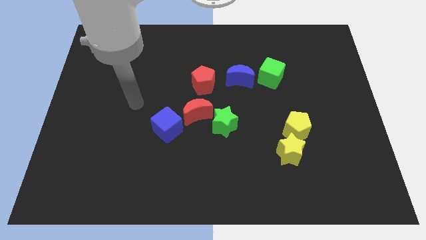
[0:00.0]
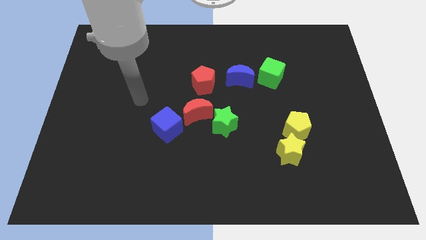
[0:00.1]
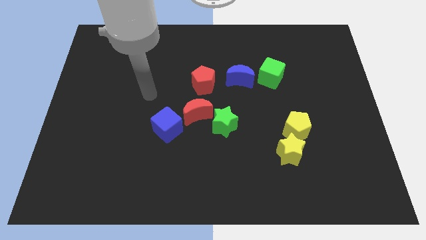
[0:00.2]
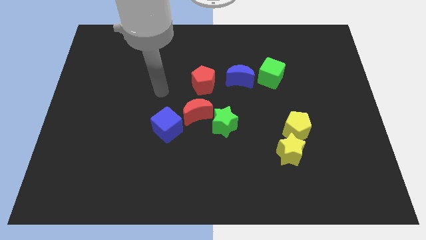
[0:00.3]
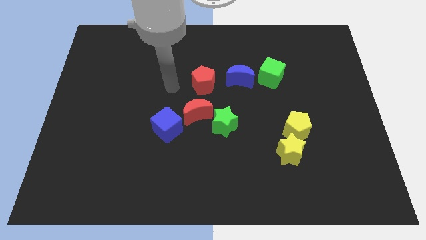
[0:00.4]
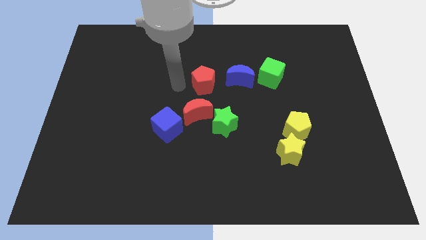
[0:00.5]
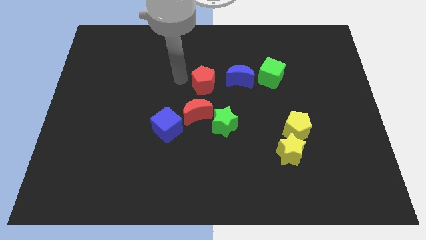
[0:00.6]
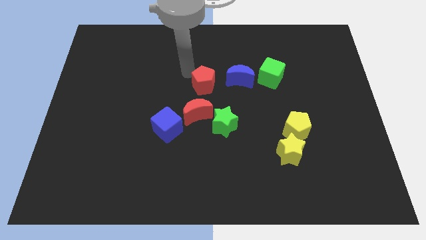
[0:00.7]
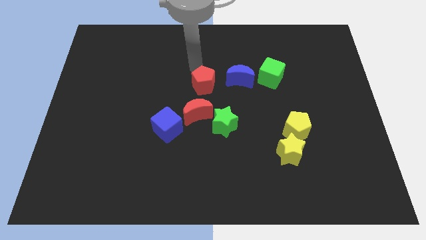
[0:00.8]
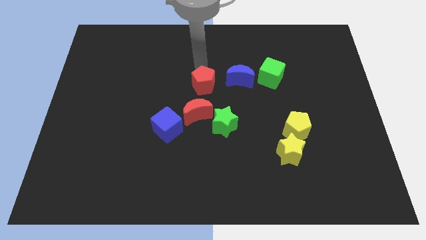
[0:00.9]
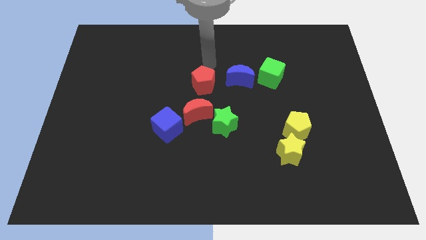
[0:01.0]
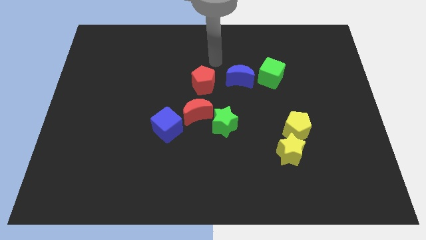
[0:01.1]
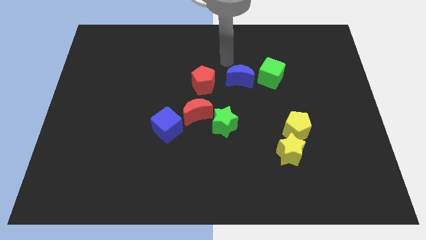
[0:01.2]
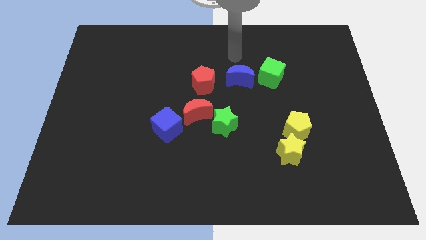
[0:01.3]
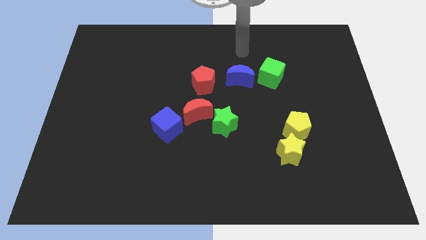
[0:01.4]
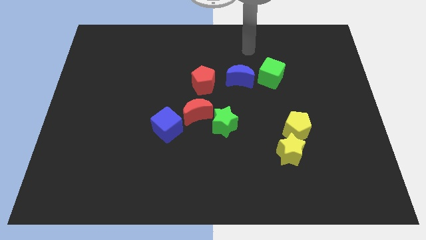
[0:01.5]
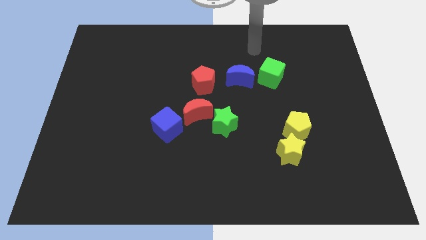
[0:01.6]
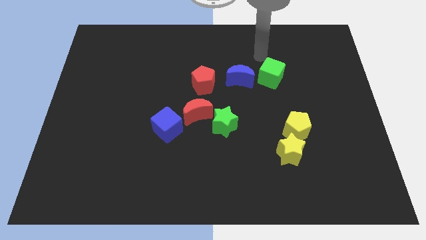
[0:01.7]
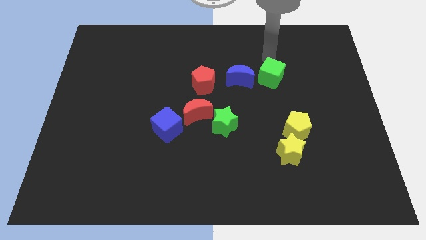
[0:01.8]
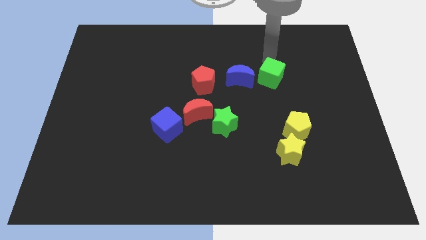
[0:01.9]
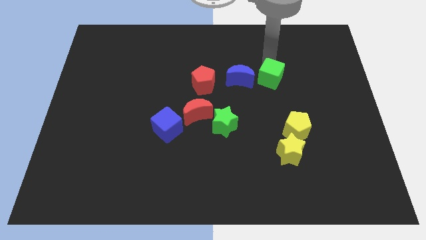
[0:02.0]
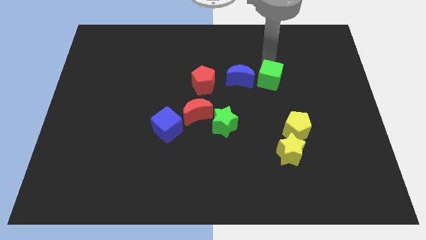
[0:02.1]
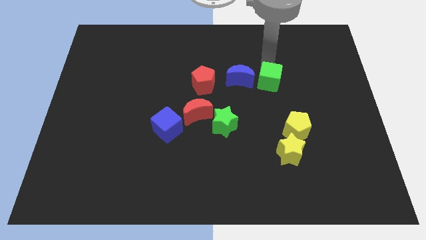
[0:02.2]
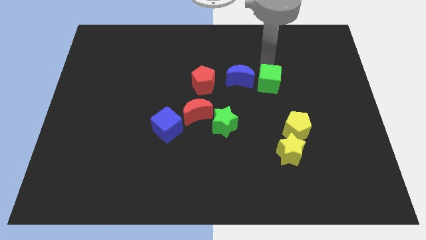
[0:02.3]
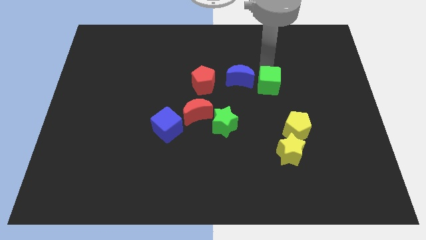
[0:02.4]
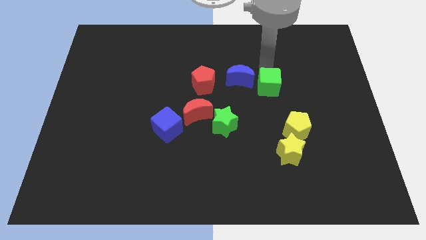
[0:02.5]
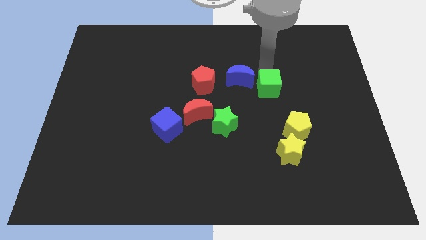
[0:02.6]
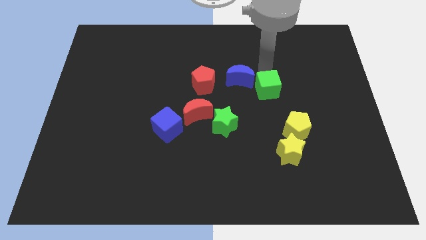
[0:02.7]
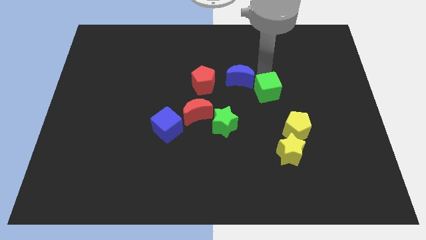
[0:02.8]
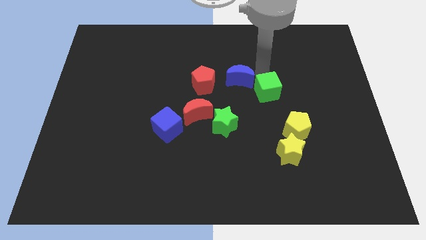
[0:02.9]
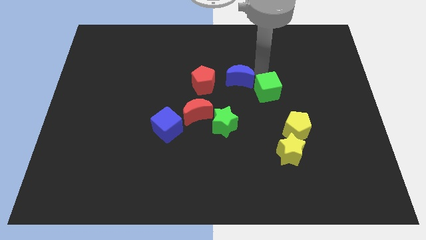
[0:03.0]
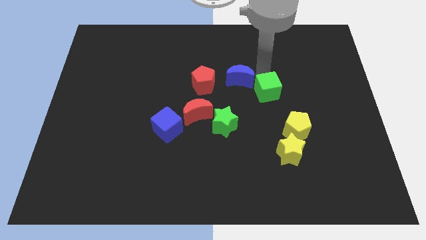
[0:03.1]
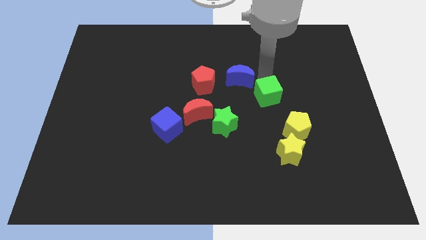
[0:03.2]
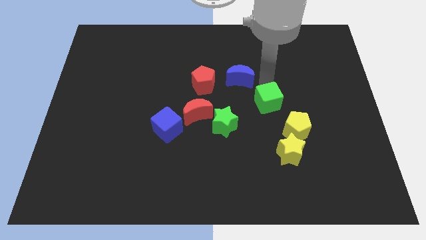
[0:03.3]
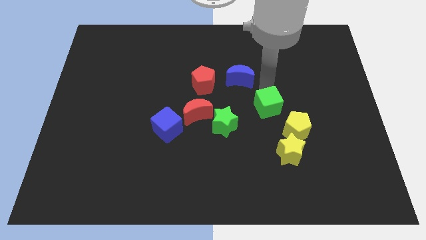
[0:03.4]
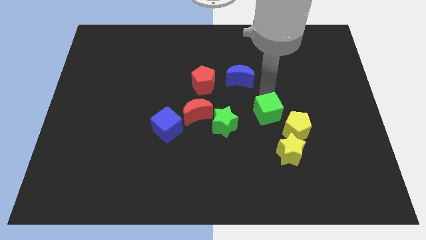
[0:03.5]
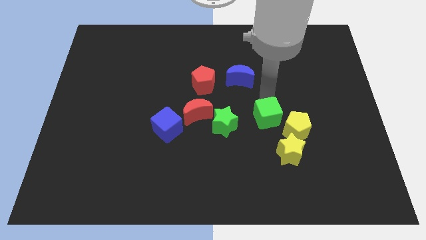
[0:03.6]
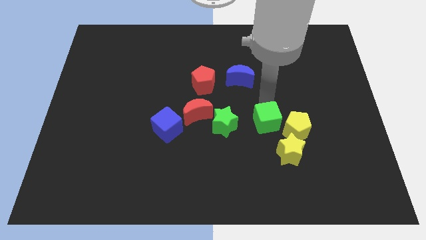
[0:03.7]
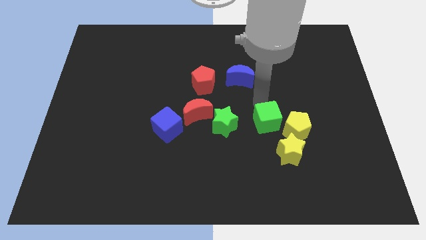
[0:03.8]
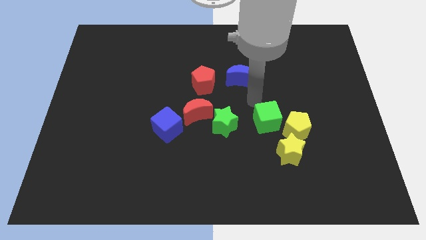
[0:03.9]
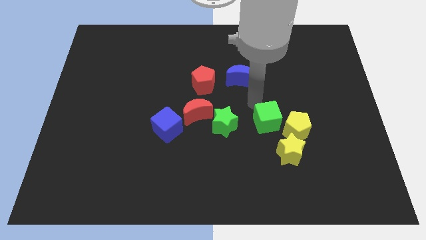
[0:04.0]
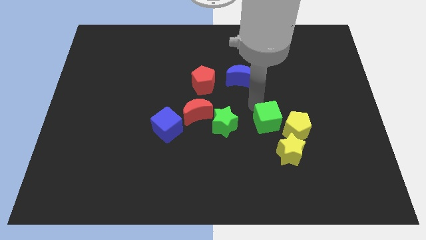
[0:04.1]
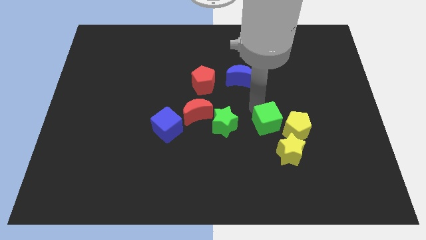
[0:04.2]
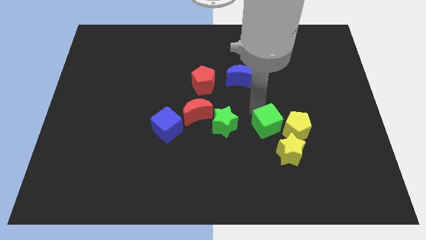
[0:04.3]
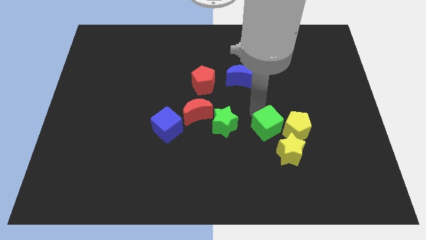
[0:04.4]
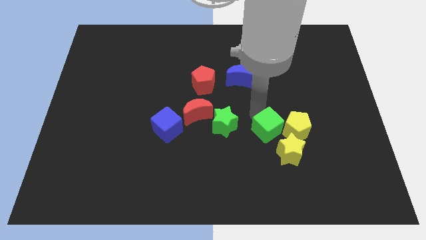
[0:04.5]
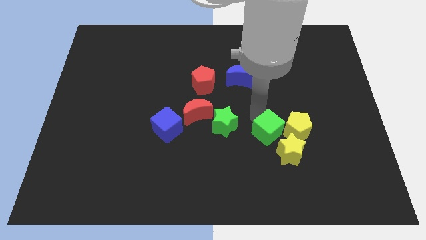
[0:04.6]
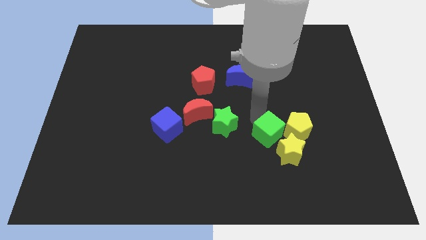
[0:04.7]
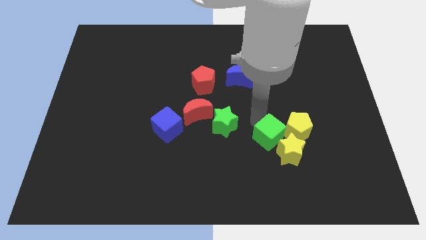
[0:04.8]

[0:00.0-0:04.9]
put the green cube towards the yellow star

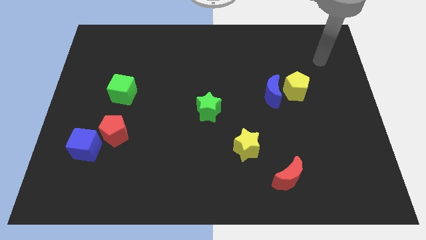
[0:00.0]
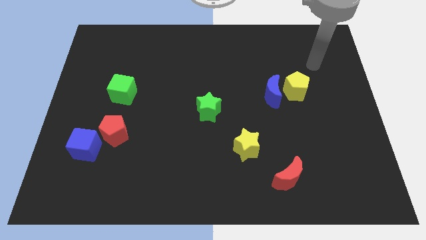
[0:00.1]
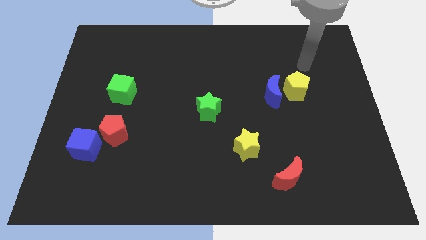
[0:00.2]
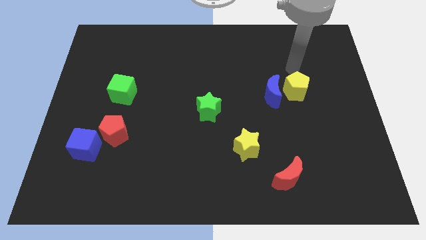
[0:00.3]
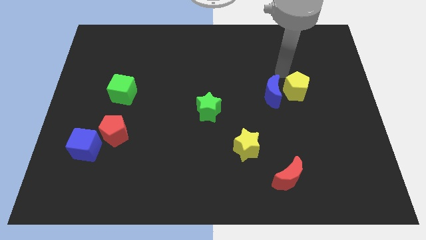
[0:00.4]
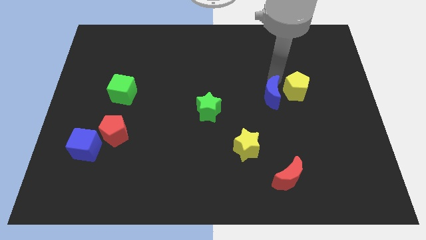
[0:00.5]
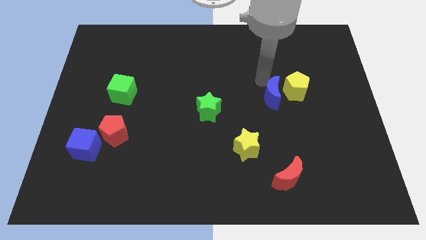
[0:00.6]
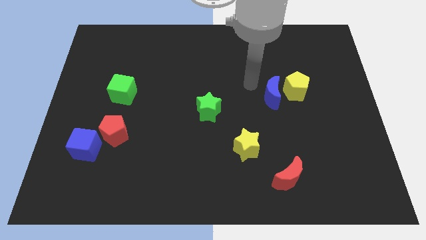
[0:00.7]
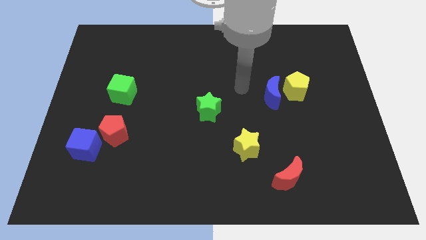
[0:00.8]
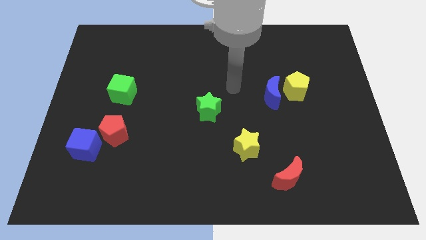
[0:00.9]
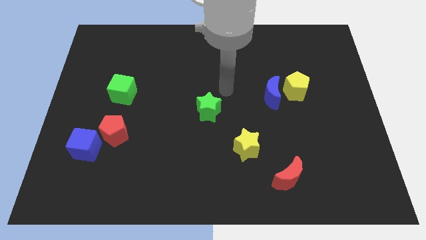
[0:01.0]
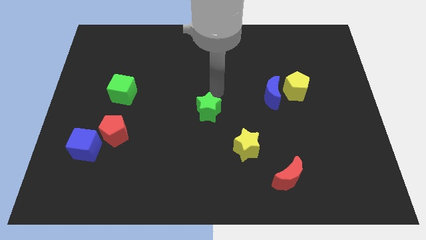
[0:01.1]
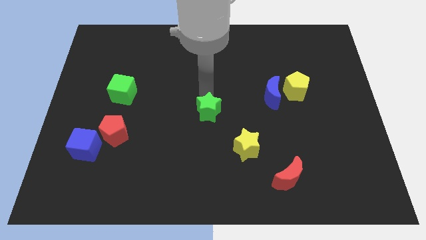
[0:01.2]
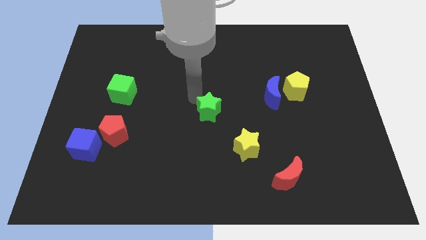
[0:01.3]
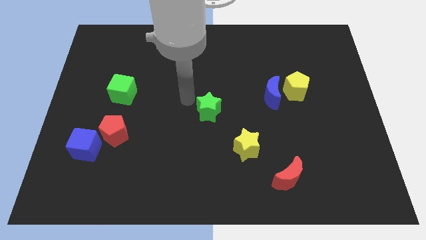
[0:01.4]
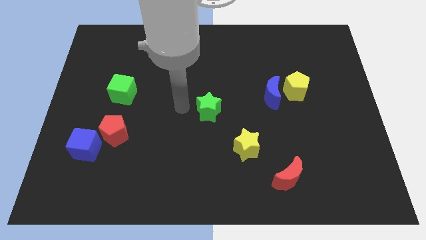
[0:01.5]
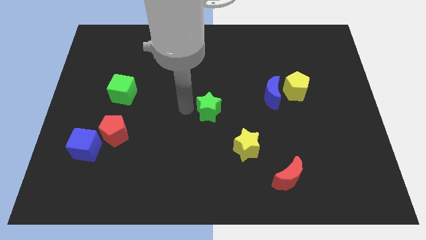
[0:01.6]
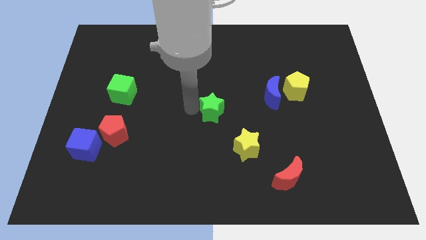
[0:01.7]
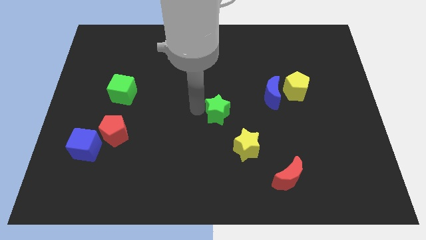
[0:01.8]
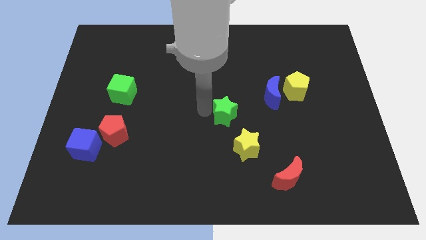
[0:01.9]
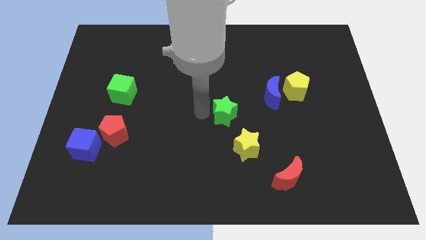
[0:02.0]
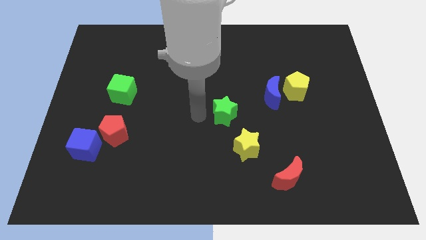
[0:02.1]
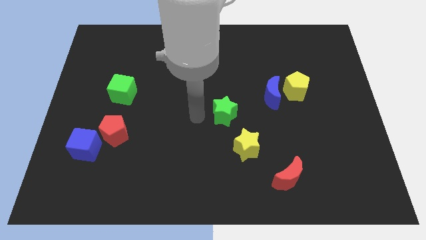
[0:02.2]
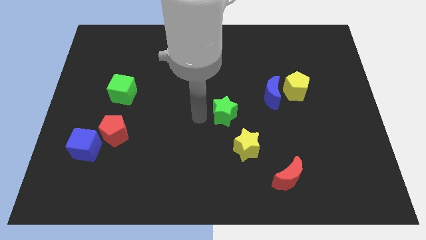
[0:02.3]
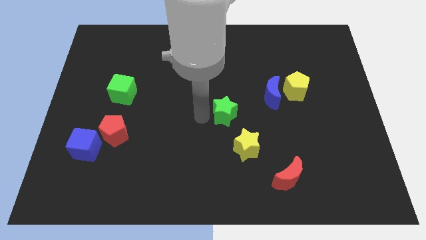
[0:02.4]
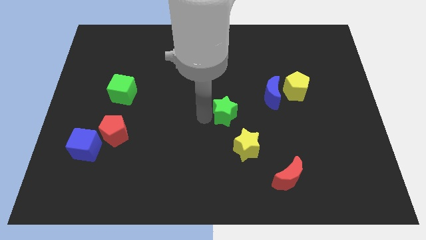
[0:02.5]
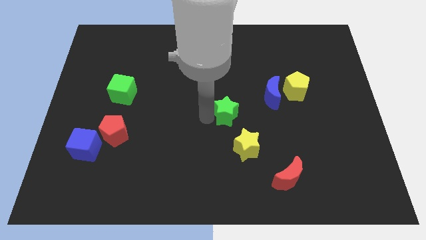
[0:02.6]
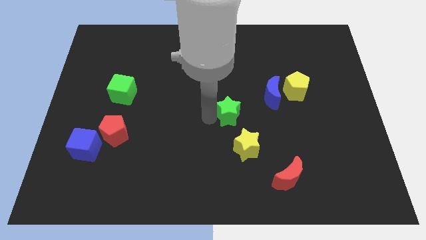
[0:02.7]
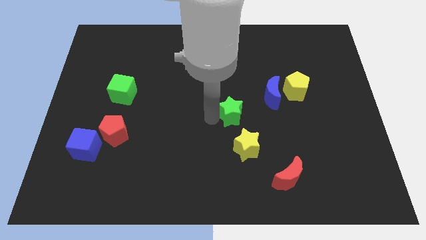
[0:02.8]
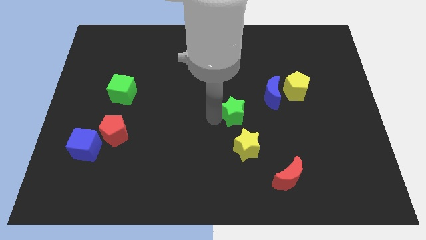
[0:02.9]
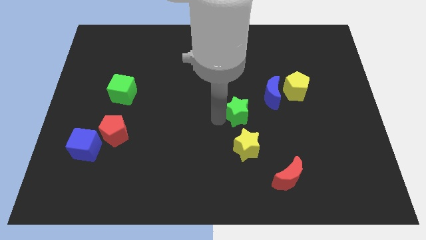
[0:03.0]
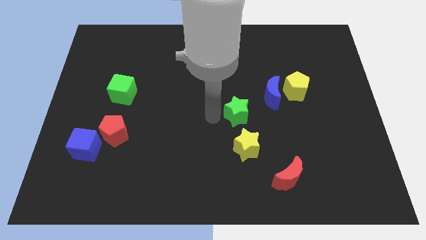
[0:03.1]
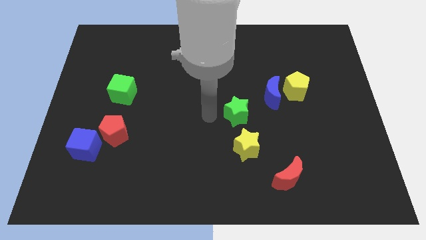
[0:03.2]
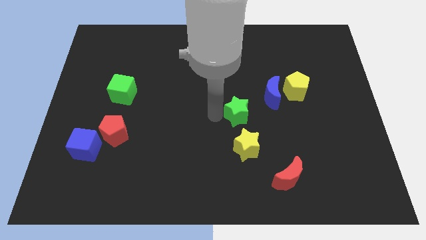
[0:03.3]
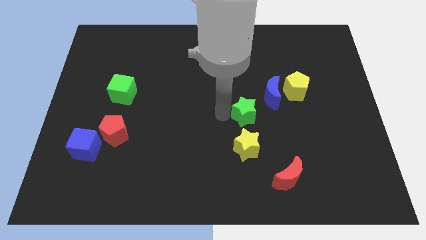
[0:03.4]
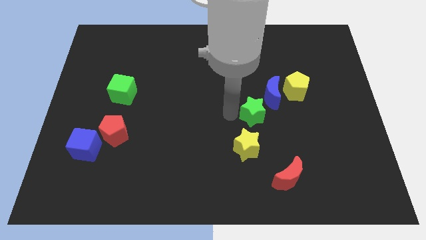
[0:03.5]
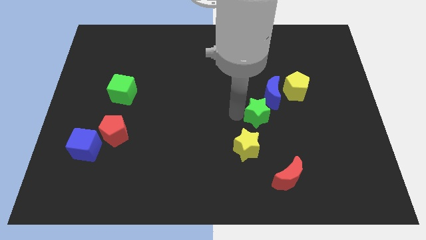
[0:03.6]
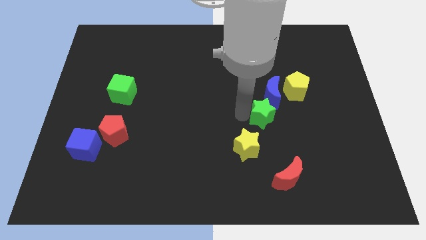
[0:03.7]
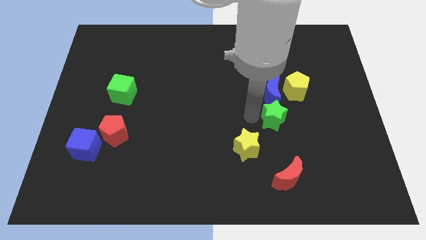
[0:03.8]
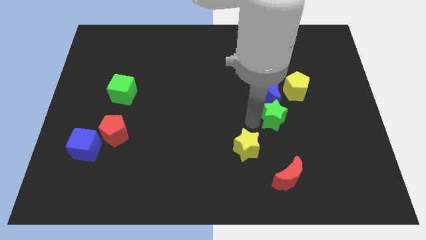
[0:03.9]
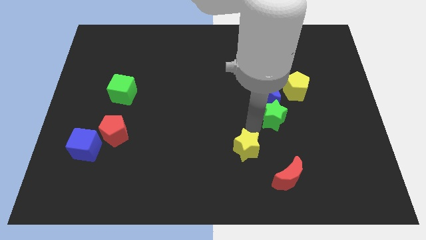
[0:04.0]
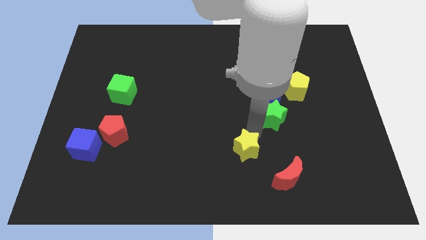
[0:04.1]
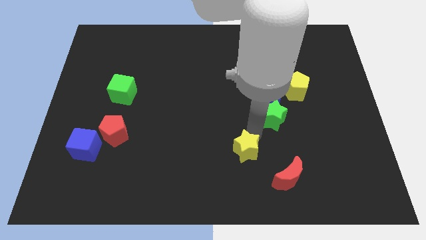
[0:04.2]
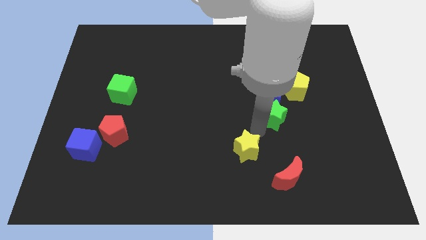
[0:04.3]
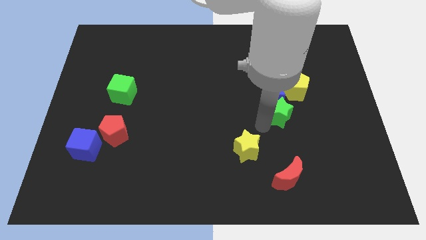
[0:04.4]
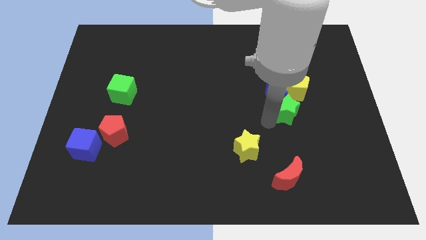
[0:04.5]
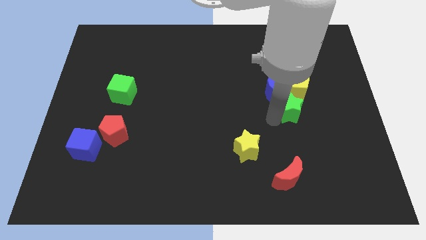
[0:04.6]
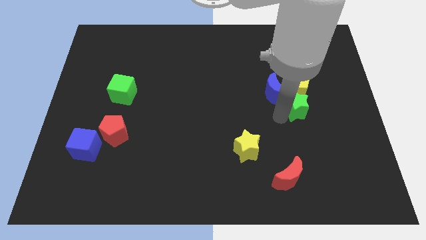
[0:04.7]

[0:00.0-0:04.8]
slide the green star towards the yellow pentagon
